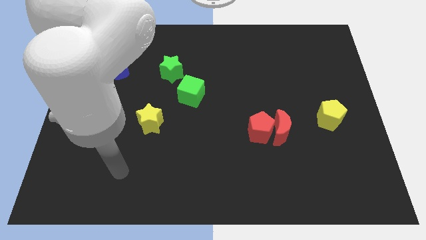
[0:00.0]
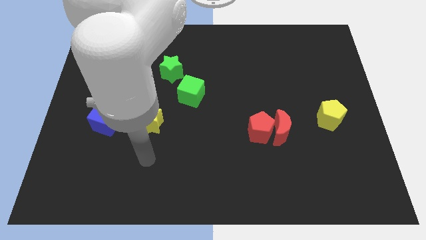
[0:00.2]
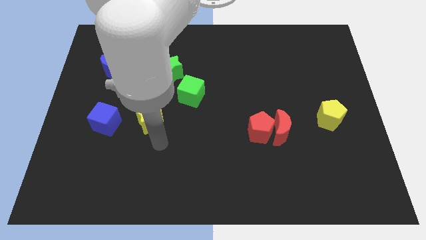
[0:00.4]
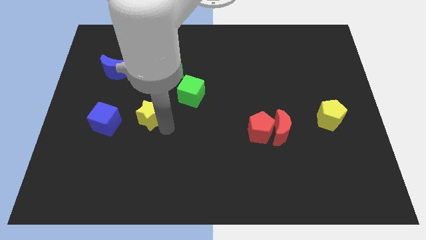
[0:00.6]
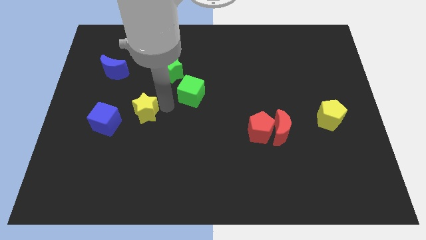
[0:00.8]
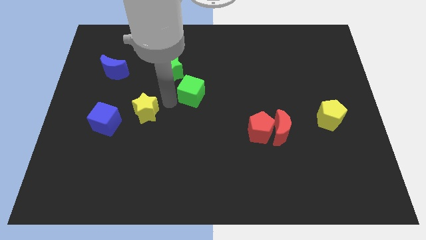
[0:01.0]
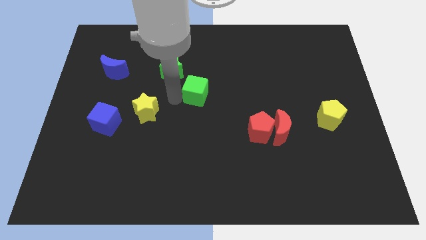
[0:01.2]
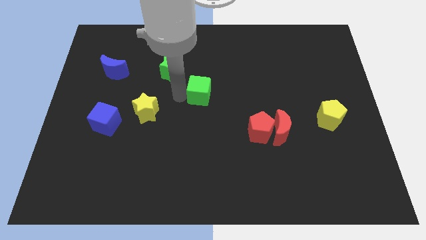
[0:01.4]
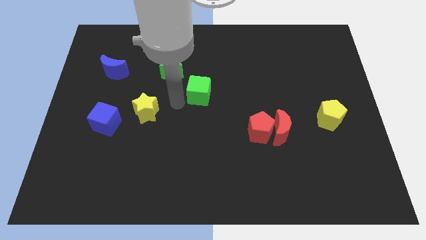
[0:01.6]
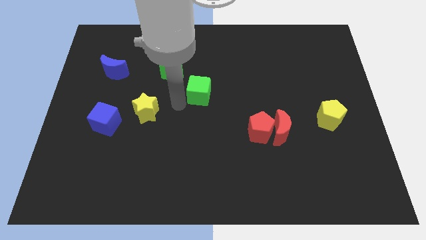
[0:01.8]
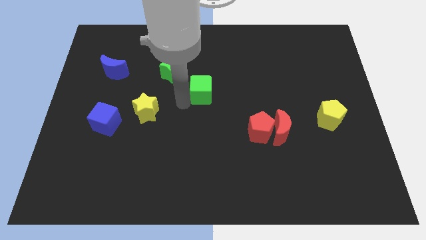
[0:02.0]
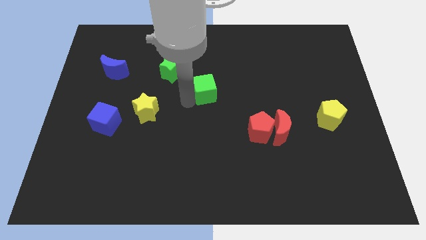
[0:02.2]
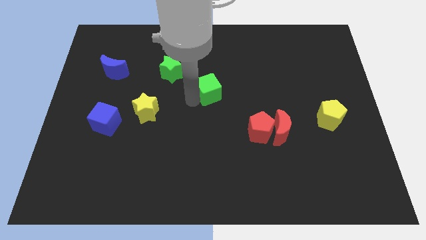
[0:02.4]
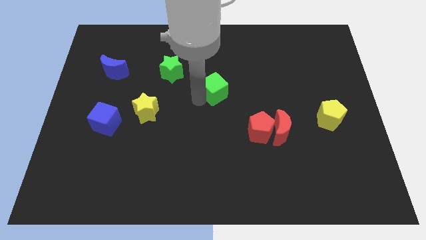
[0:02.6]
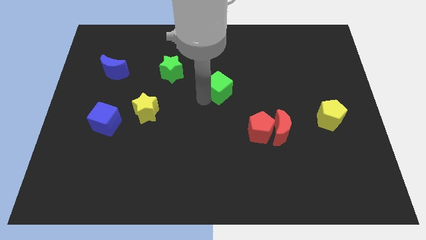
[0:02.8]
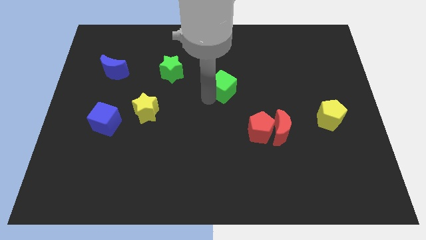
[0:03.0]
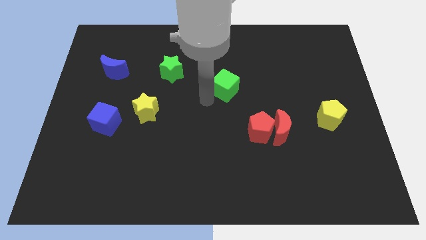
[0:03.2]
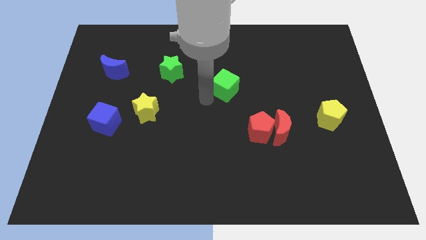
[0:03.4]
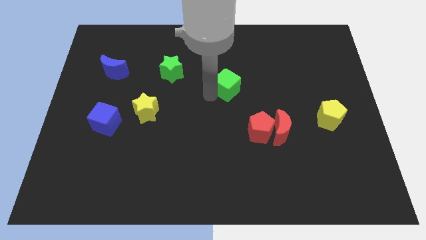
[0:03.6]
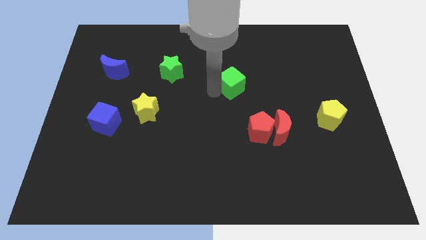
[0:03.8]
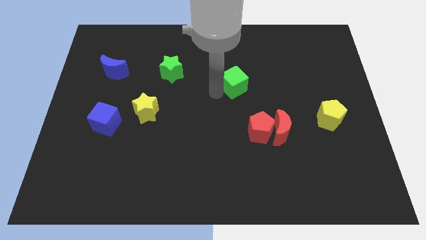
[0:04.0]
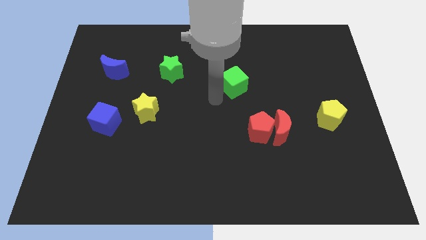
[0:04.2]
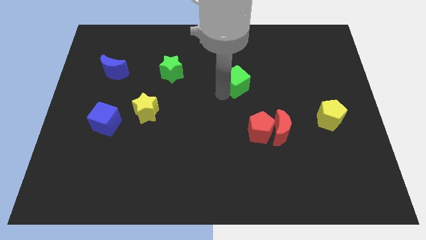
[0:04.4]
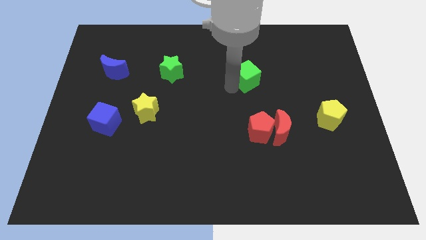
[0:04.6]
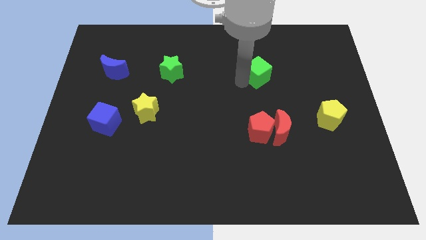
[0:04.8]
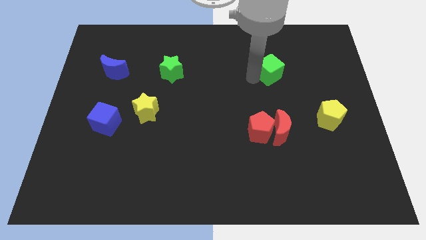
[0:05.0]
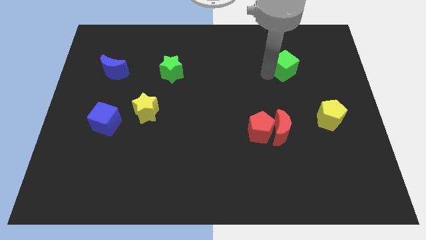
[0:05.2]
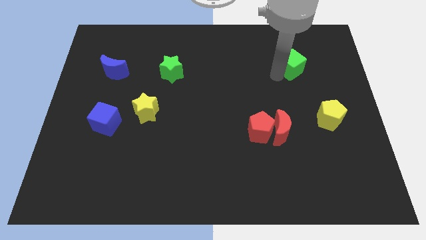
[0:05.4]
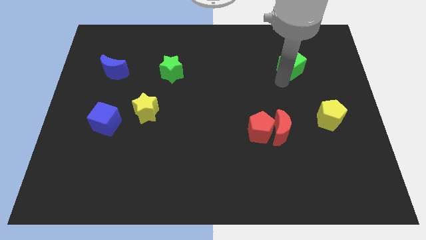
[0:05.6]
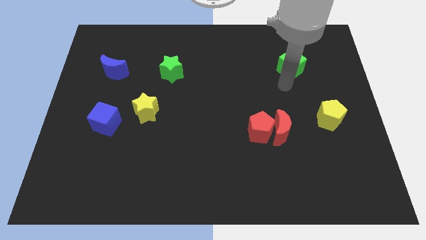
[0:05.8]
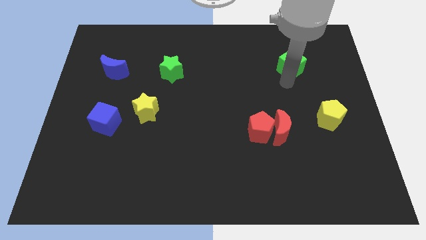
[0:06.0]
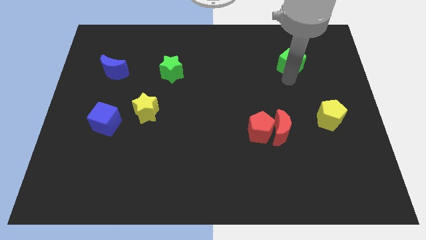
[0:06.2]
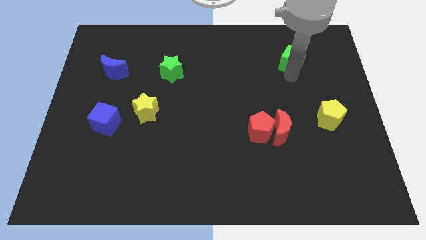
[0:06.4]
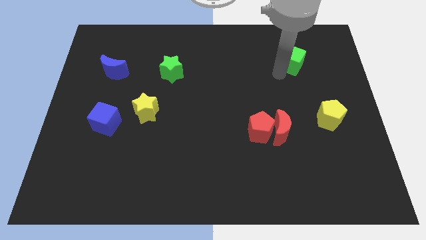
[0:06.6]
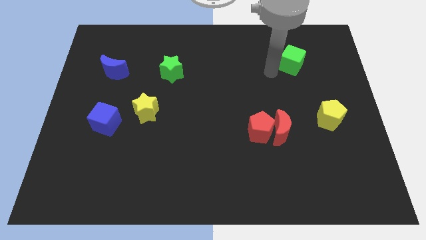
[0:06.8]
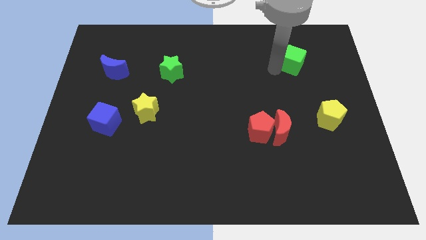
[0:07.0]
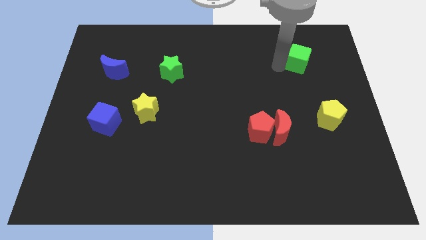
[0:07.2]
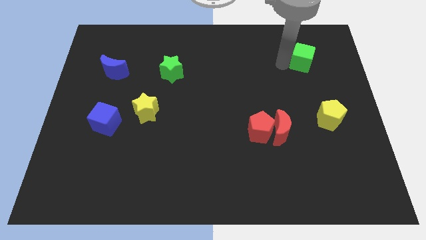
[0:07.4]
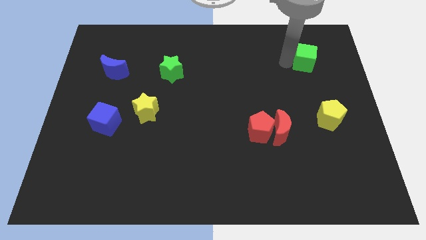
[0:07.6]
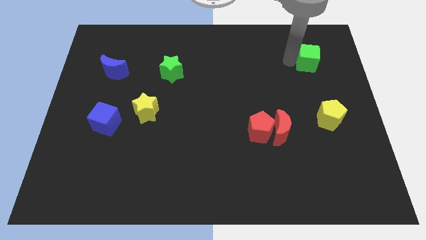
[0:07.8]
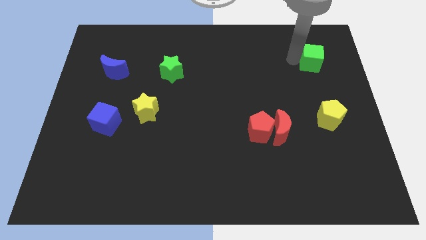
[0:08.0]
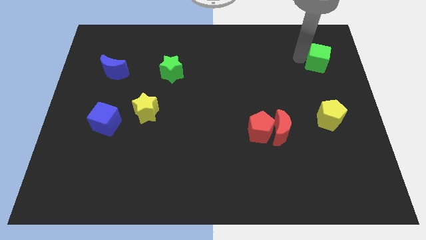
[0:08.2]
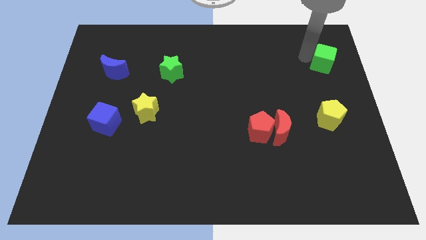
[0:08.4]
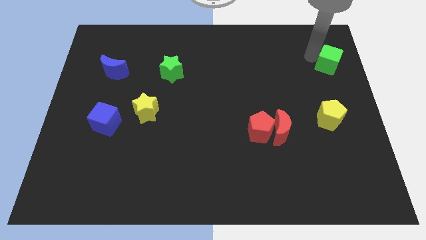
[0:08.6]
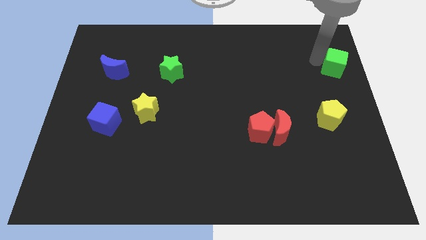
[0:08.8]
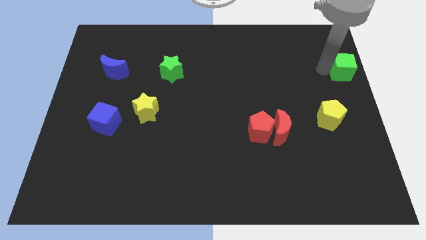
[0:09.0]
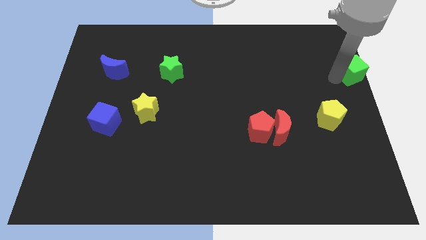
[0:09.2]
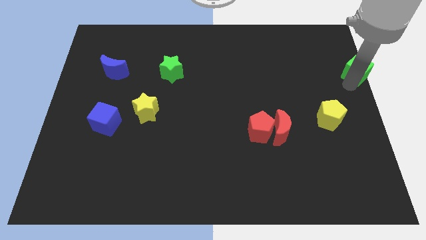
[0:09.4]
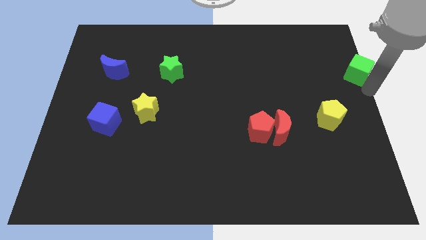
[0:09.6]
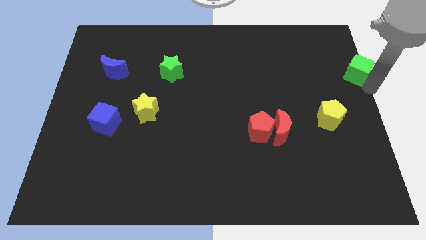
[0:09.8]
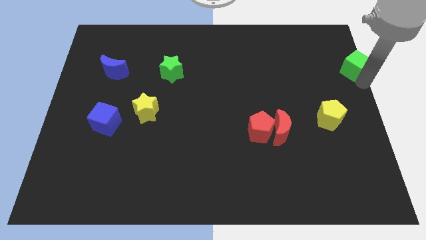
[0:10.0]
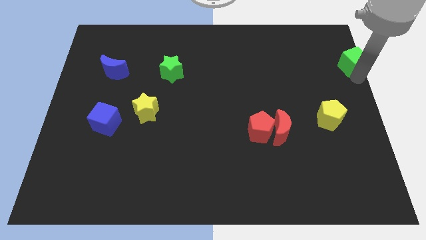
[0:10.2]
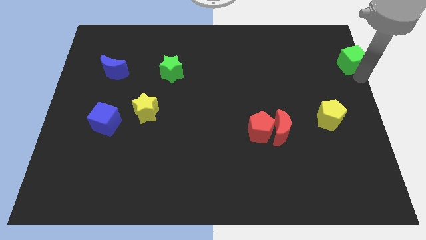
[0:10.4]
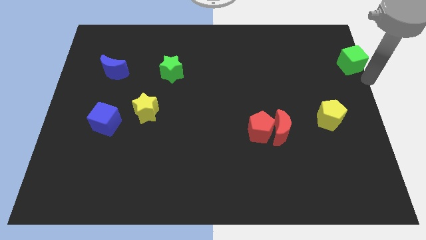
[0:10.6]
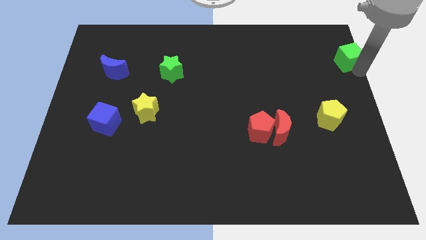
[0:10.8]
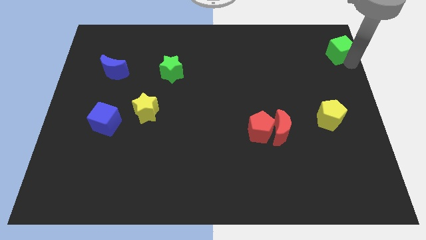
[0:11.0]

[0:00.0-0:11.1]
put the green cube to the top right of the board
